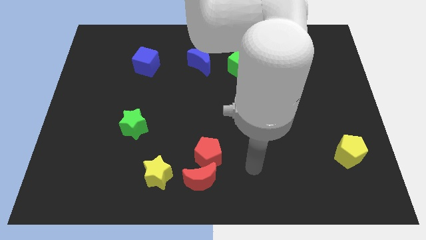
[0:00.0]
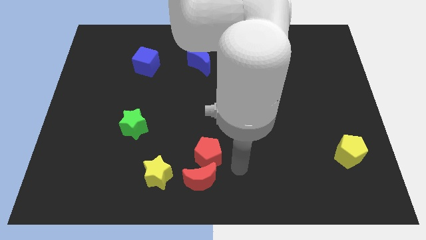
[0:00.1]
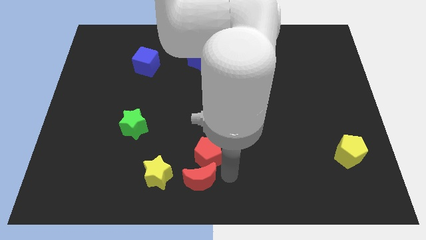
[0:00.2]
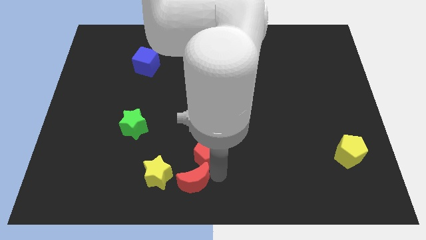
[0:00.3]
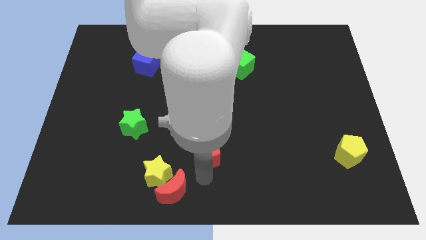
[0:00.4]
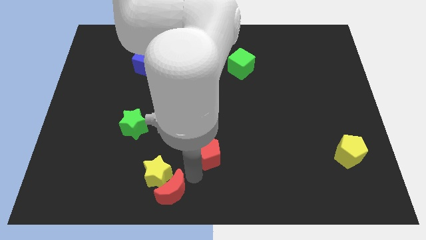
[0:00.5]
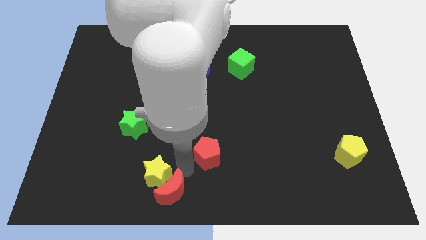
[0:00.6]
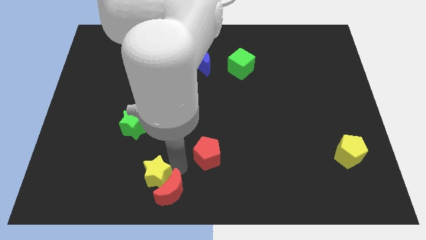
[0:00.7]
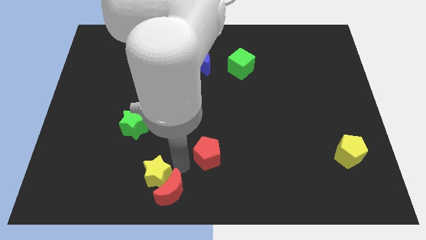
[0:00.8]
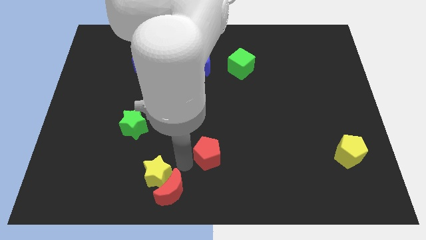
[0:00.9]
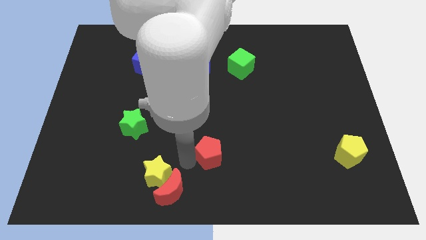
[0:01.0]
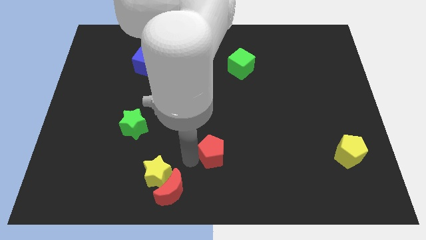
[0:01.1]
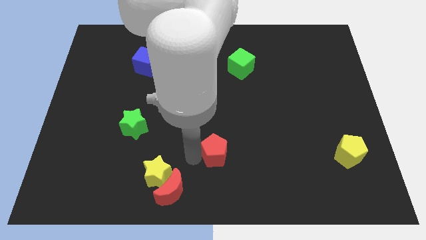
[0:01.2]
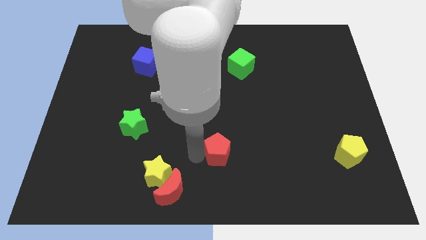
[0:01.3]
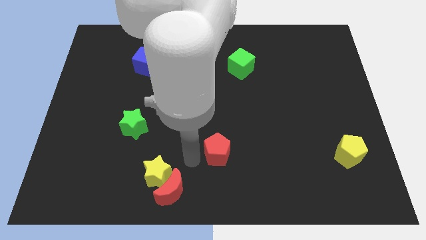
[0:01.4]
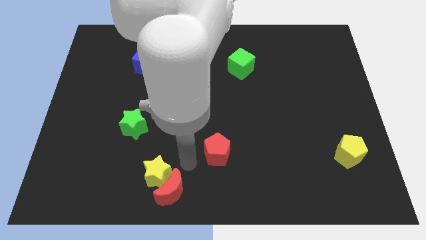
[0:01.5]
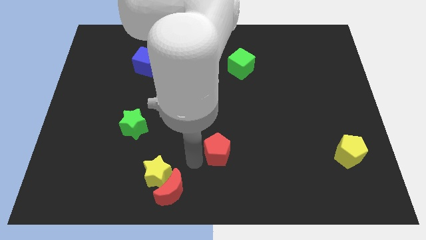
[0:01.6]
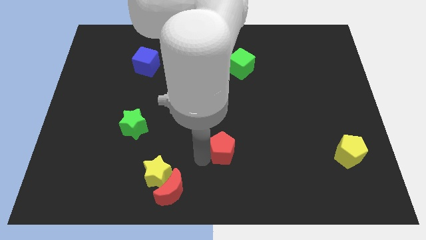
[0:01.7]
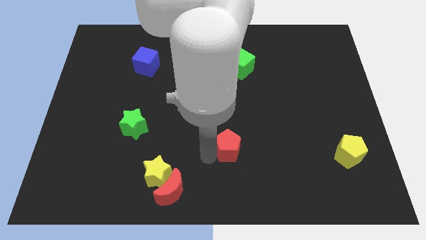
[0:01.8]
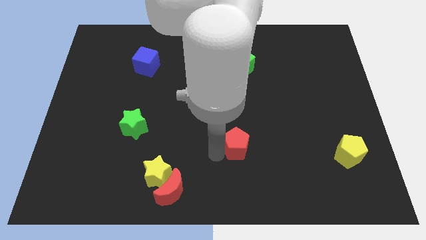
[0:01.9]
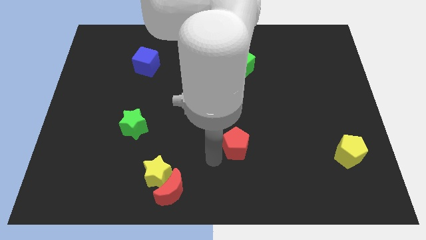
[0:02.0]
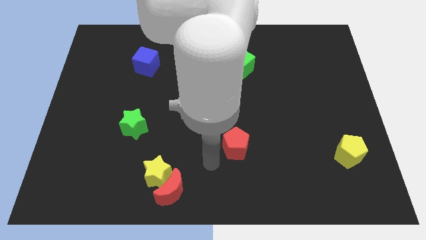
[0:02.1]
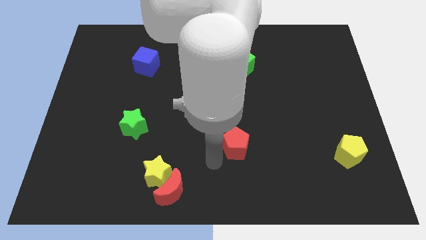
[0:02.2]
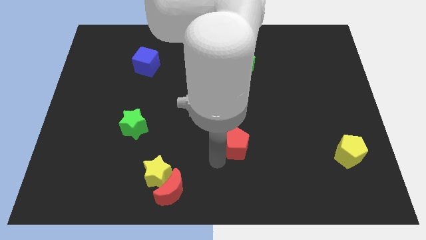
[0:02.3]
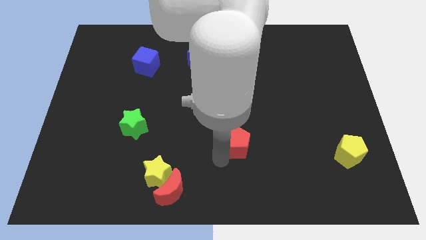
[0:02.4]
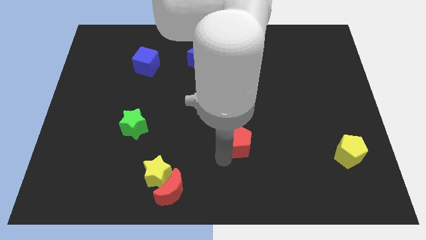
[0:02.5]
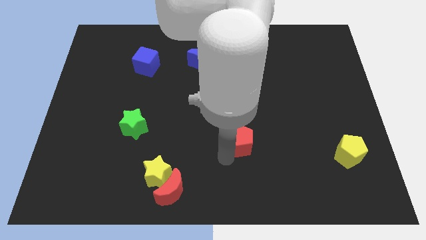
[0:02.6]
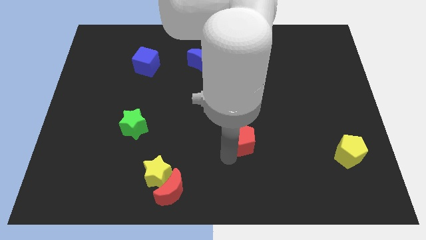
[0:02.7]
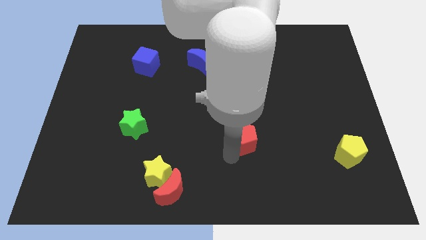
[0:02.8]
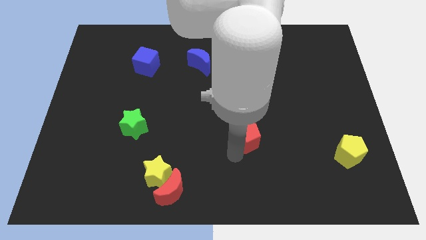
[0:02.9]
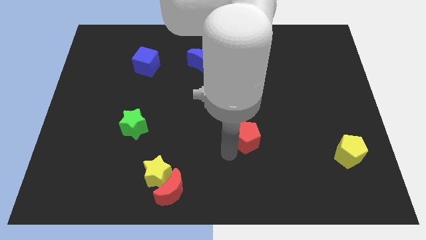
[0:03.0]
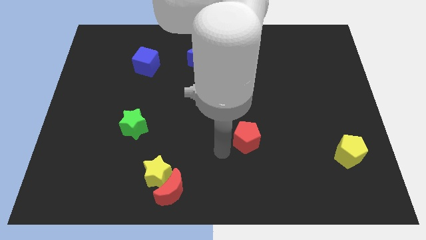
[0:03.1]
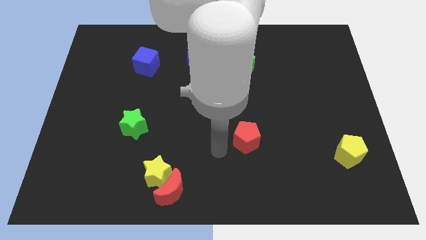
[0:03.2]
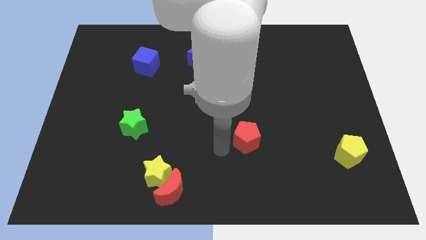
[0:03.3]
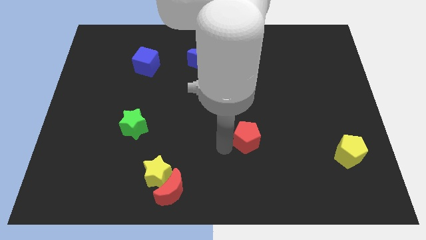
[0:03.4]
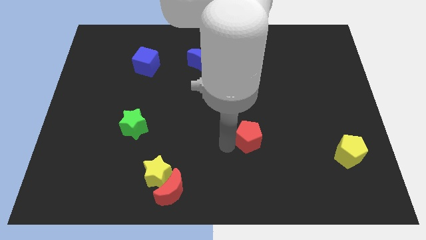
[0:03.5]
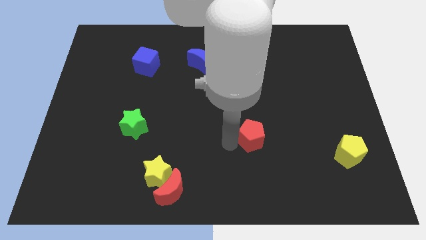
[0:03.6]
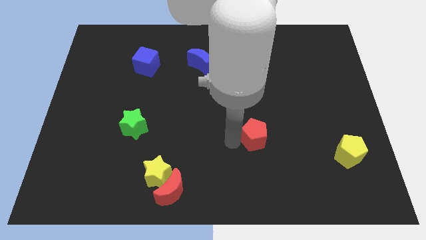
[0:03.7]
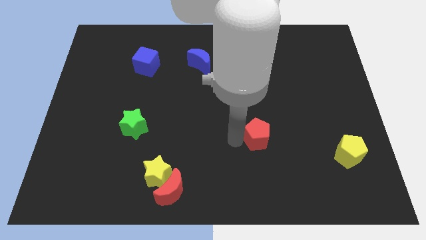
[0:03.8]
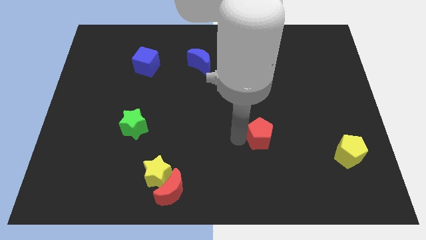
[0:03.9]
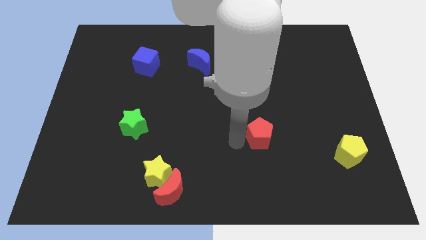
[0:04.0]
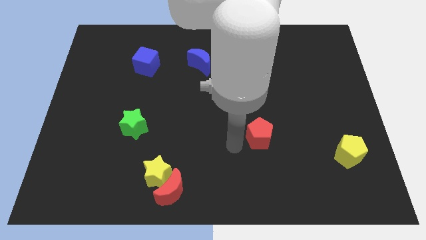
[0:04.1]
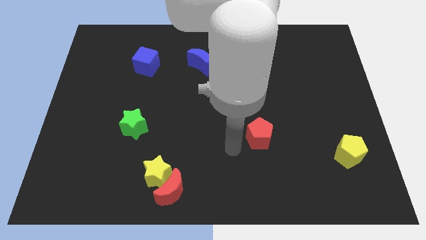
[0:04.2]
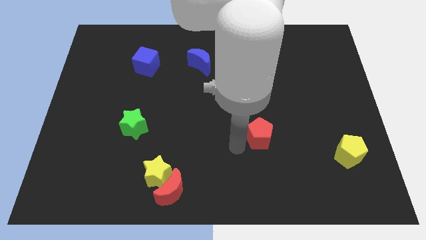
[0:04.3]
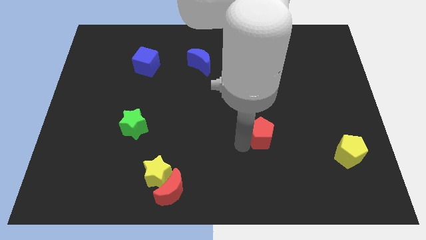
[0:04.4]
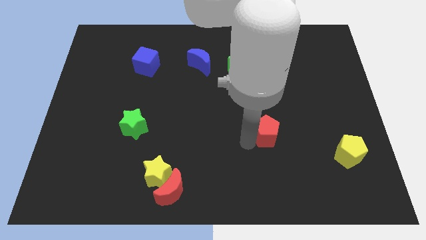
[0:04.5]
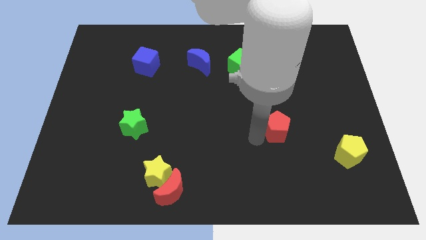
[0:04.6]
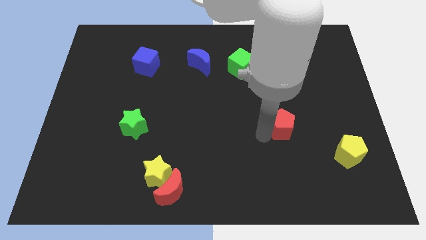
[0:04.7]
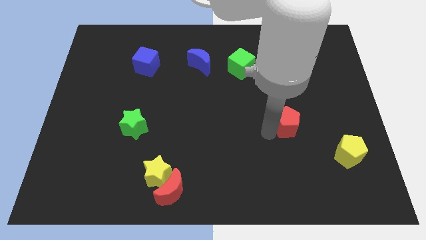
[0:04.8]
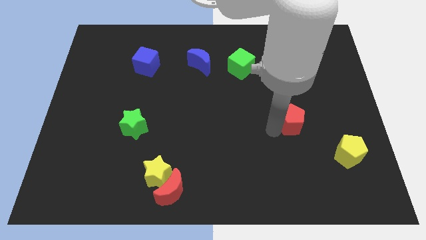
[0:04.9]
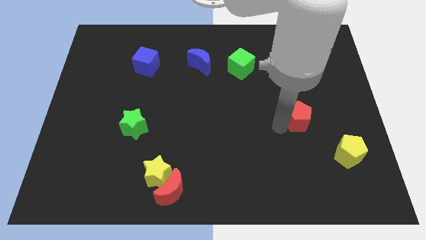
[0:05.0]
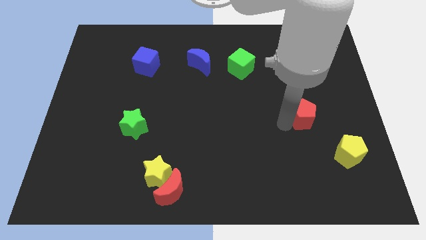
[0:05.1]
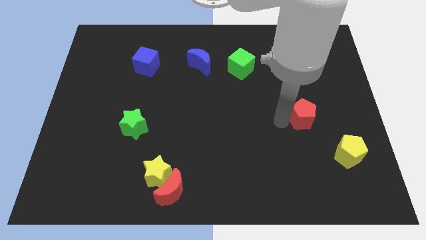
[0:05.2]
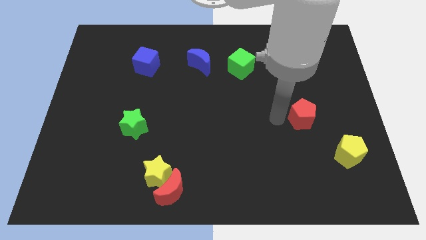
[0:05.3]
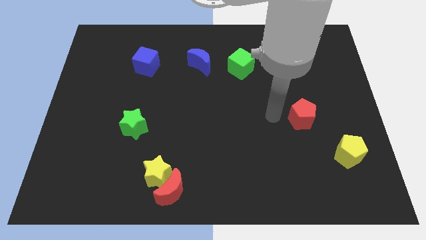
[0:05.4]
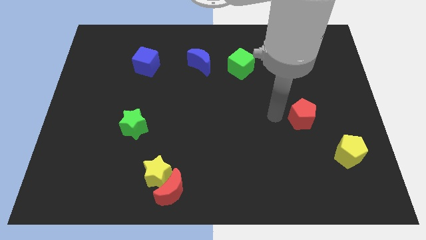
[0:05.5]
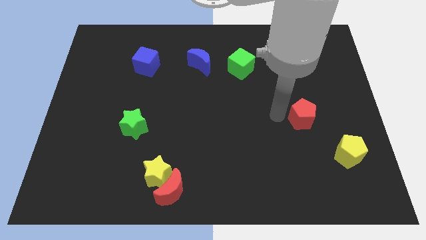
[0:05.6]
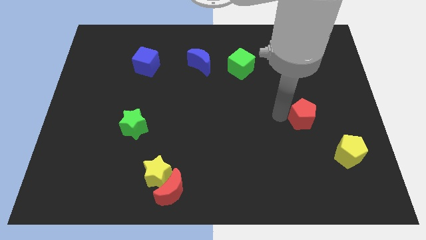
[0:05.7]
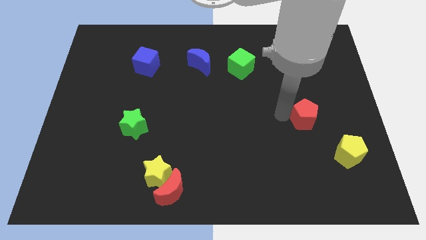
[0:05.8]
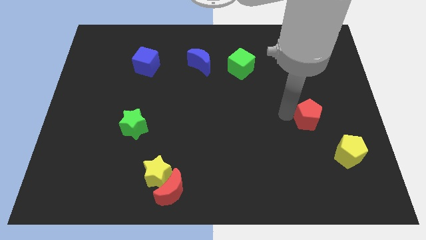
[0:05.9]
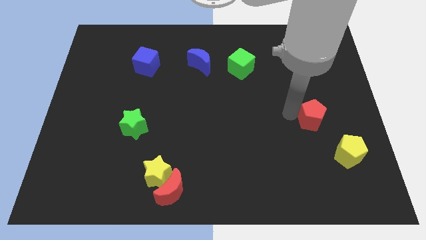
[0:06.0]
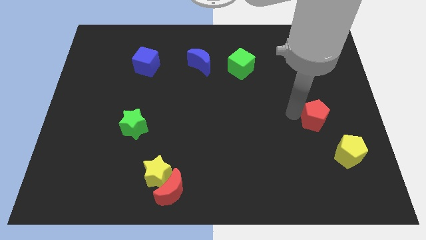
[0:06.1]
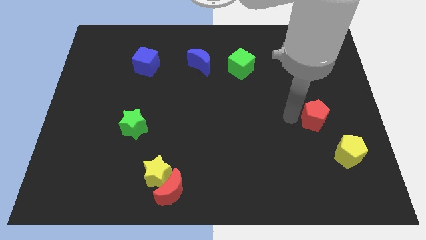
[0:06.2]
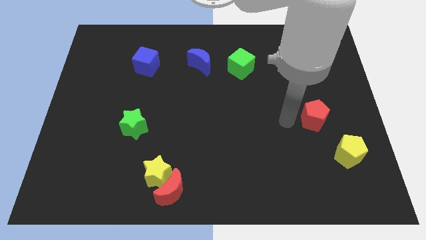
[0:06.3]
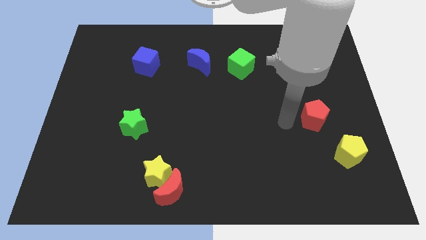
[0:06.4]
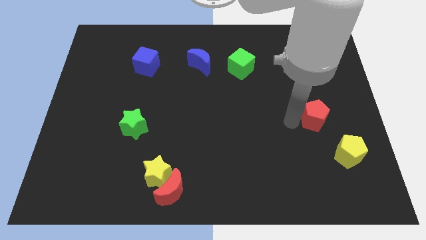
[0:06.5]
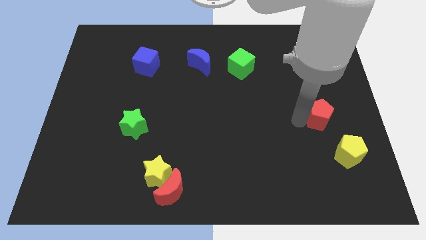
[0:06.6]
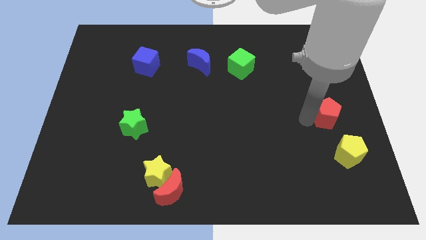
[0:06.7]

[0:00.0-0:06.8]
put the red pentagon to the top side of the yellow pentagon
